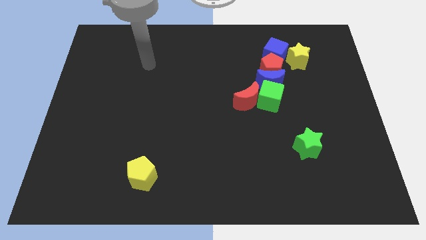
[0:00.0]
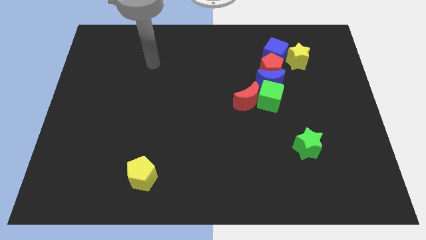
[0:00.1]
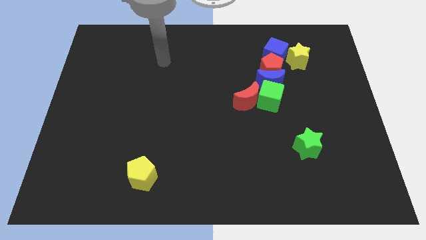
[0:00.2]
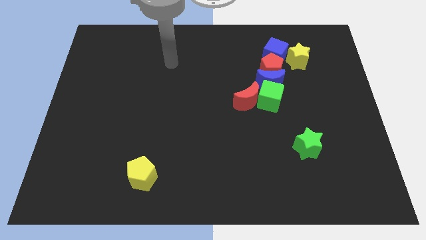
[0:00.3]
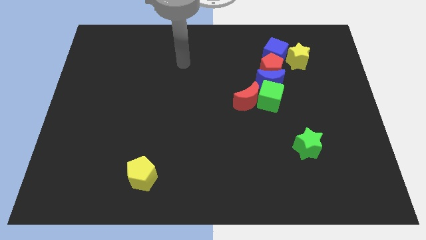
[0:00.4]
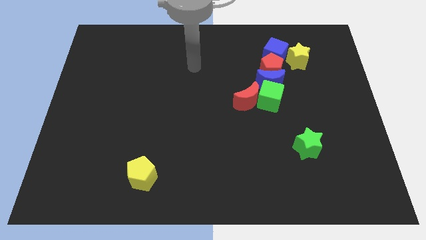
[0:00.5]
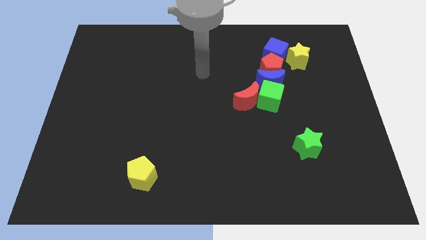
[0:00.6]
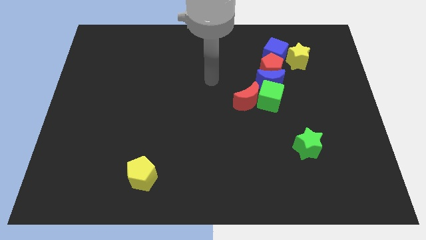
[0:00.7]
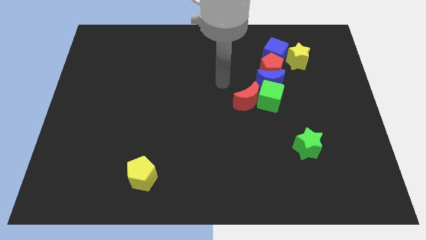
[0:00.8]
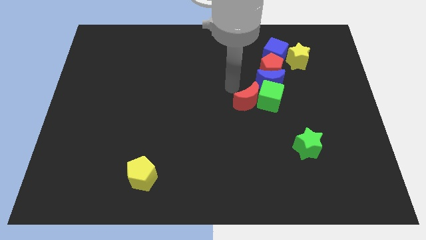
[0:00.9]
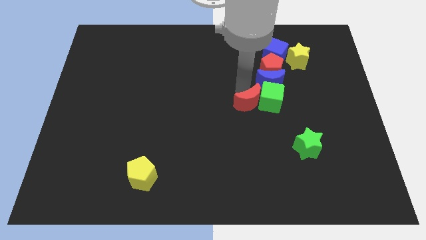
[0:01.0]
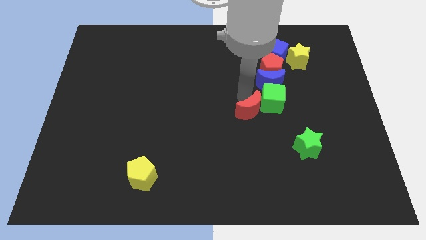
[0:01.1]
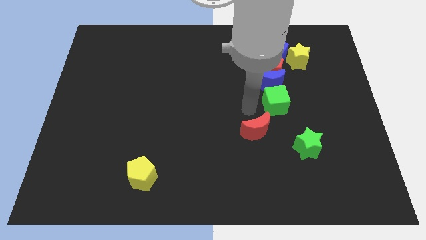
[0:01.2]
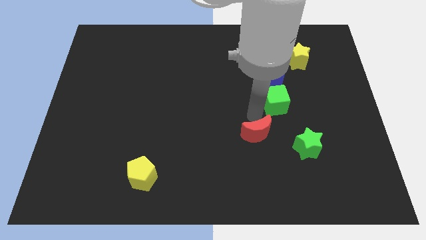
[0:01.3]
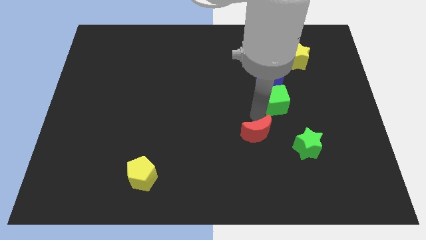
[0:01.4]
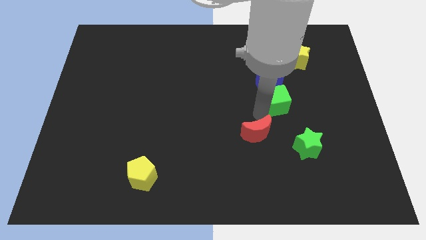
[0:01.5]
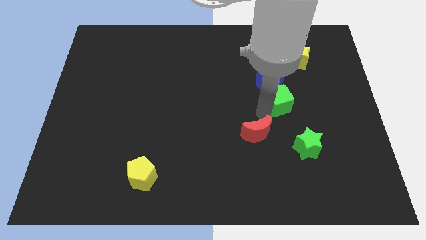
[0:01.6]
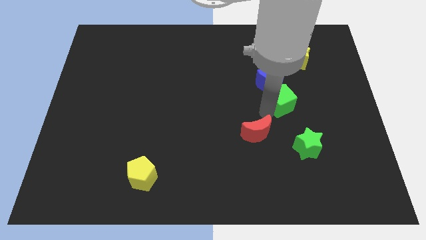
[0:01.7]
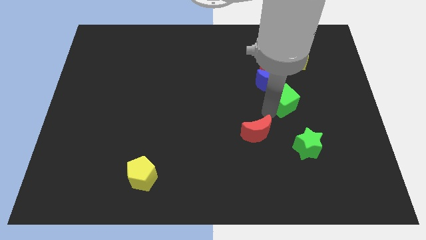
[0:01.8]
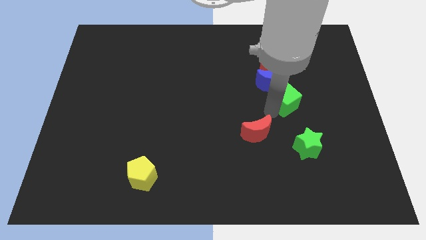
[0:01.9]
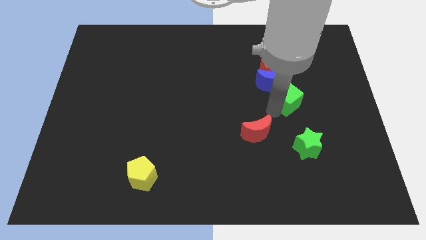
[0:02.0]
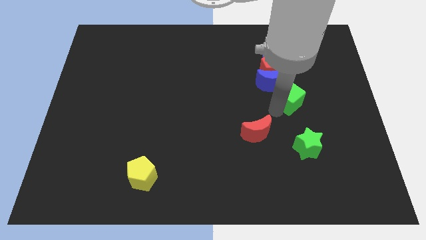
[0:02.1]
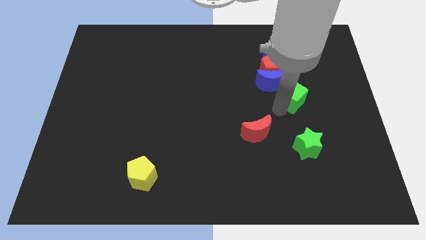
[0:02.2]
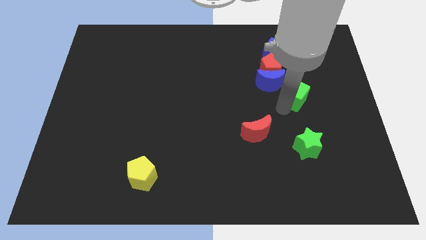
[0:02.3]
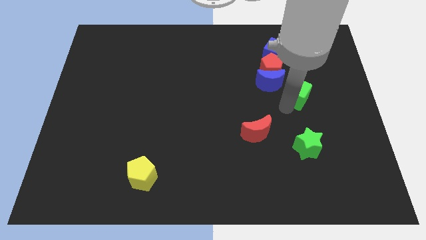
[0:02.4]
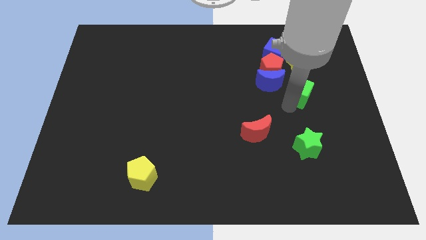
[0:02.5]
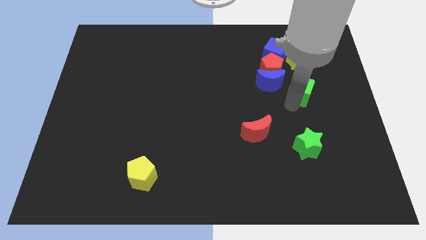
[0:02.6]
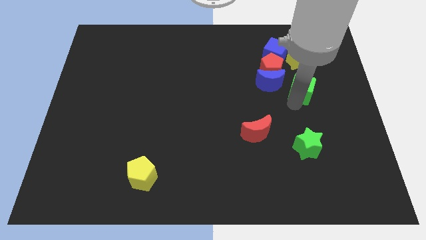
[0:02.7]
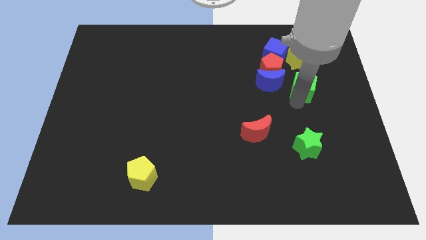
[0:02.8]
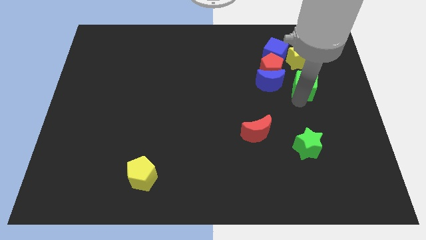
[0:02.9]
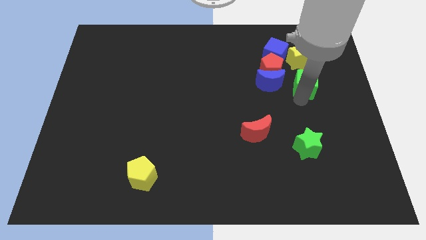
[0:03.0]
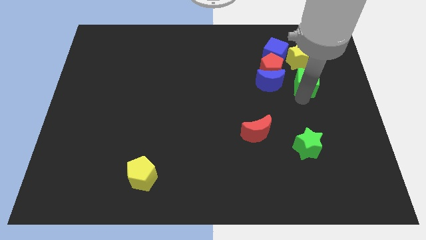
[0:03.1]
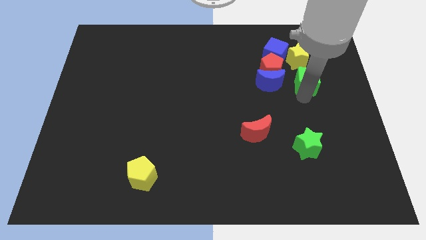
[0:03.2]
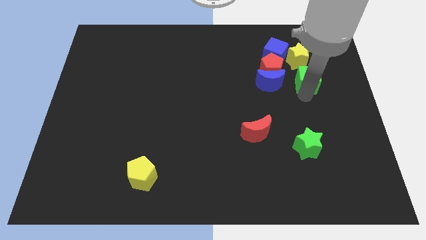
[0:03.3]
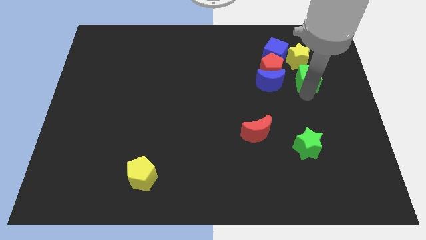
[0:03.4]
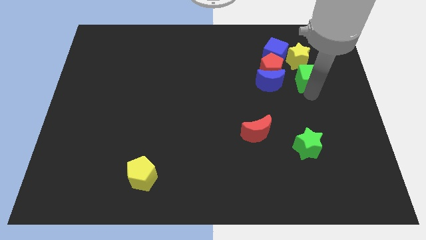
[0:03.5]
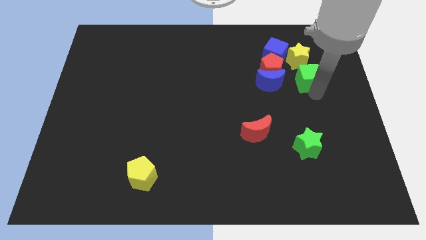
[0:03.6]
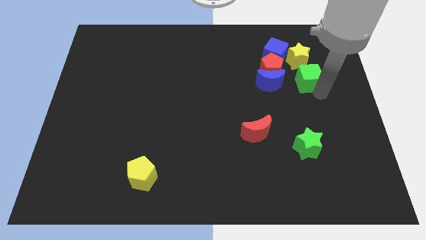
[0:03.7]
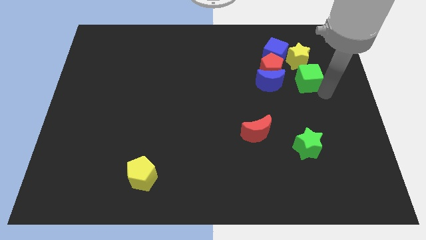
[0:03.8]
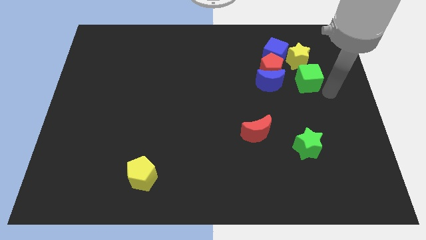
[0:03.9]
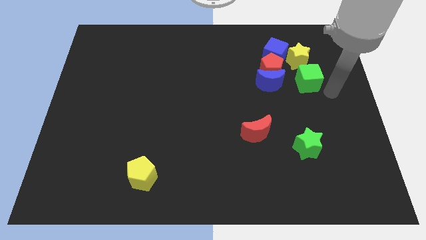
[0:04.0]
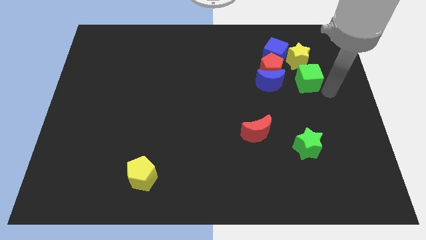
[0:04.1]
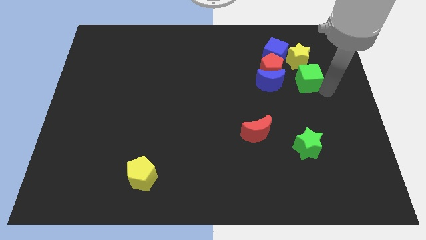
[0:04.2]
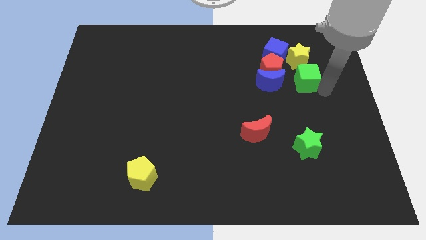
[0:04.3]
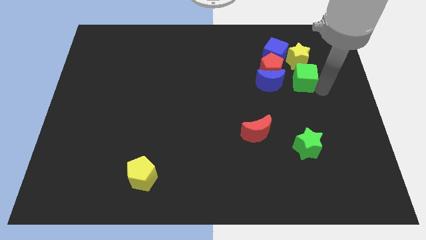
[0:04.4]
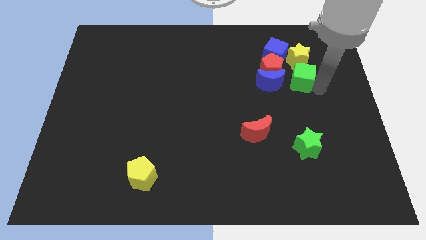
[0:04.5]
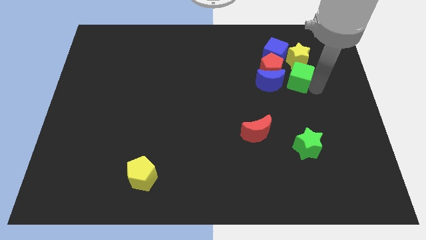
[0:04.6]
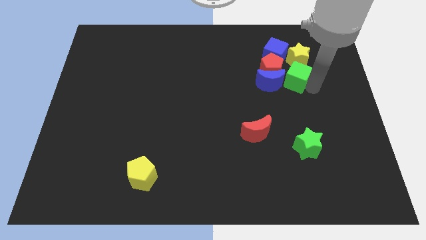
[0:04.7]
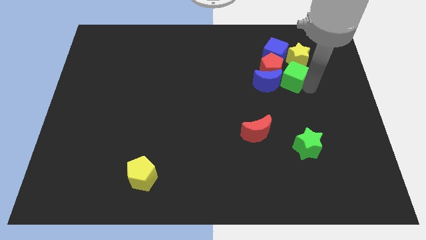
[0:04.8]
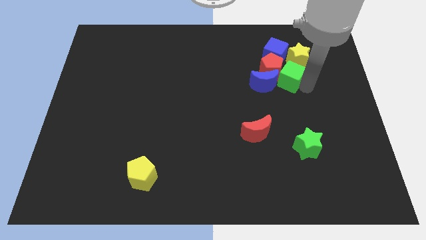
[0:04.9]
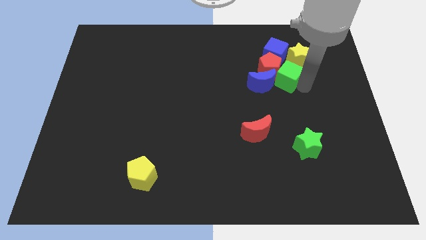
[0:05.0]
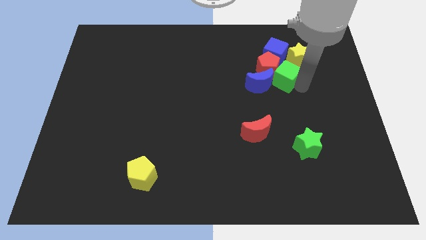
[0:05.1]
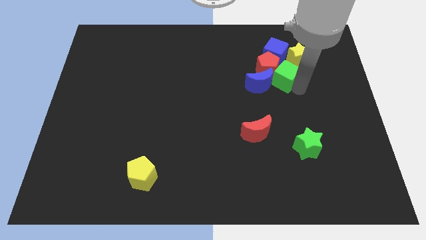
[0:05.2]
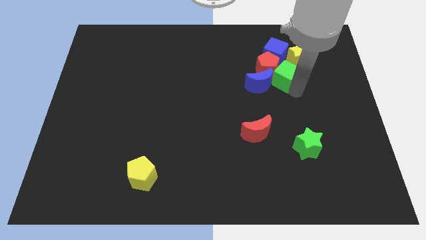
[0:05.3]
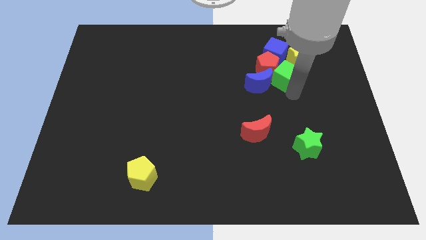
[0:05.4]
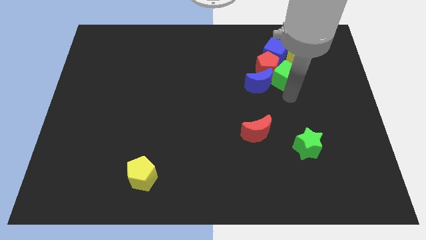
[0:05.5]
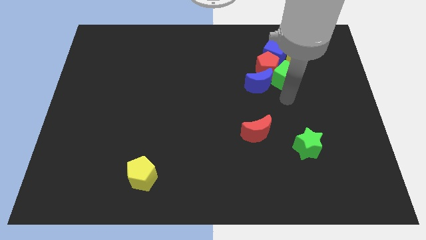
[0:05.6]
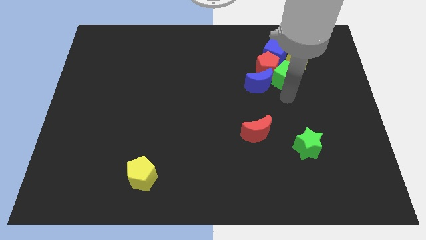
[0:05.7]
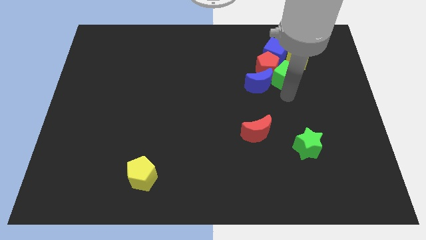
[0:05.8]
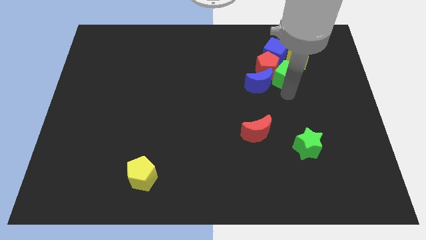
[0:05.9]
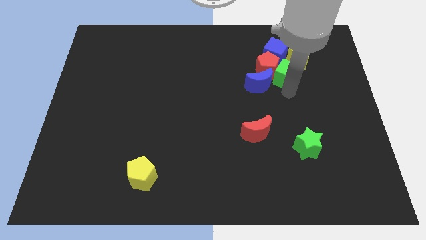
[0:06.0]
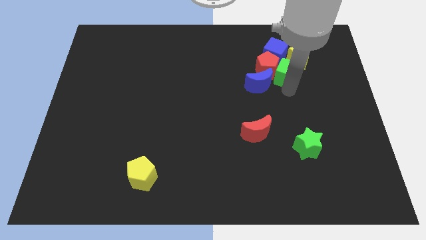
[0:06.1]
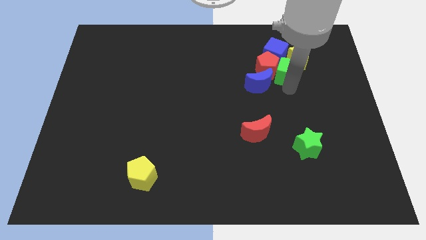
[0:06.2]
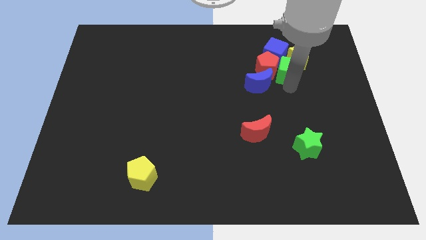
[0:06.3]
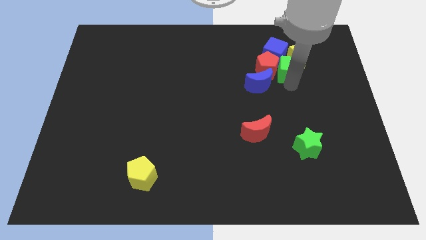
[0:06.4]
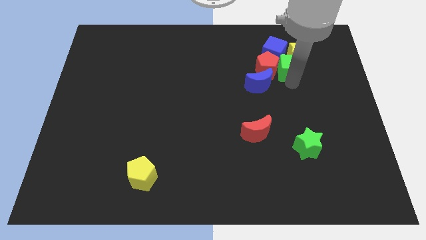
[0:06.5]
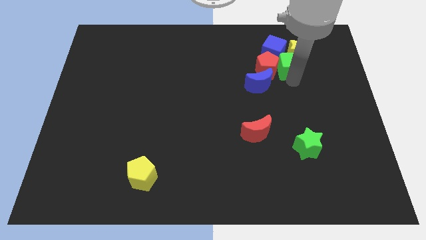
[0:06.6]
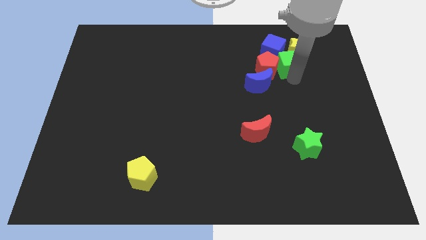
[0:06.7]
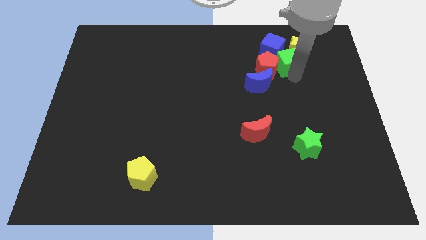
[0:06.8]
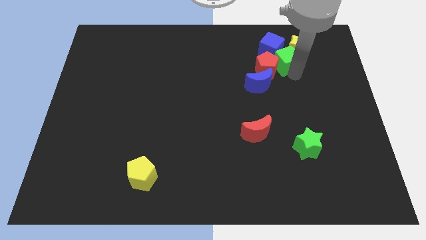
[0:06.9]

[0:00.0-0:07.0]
slide the green cube next to the blue cube
